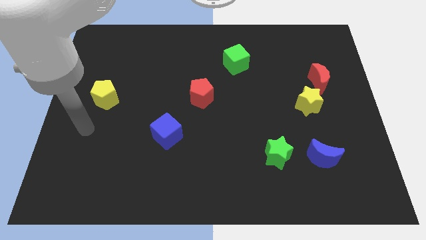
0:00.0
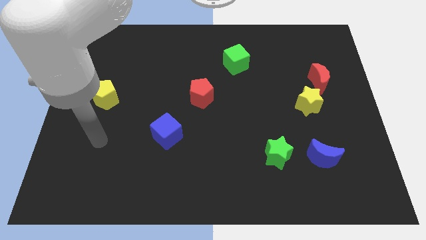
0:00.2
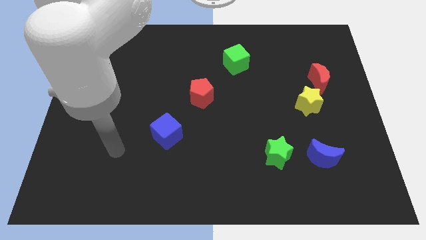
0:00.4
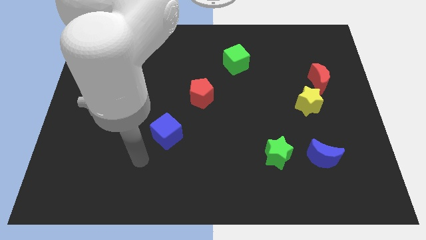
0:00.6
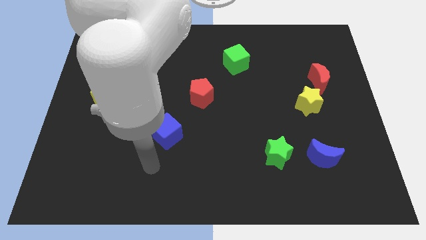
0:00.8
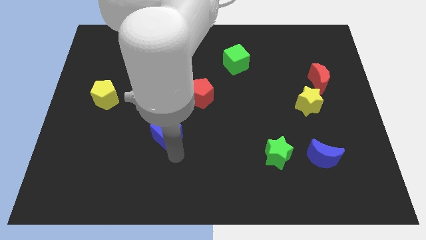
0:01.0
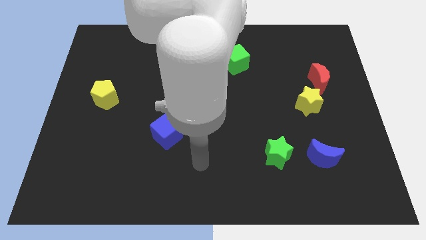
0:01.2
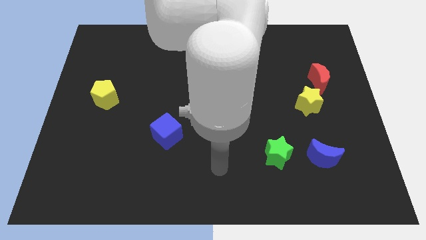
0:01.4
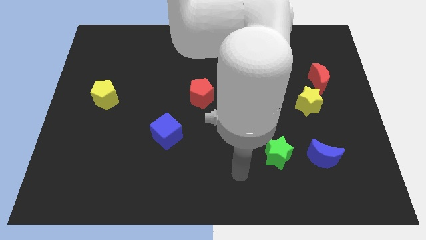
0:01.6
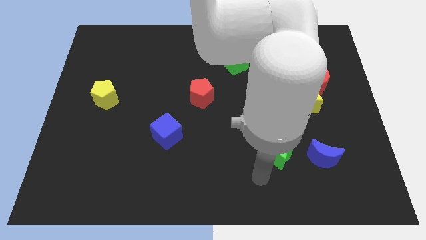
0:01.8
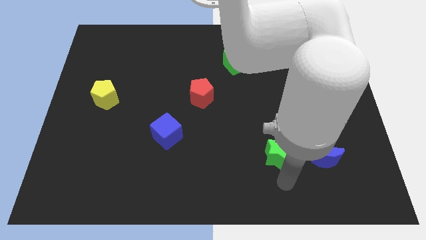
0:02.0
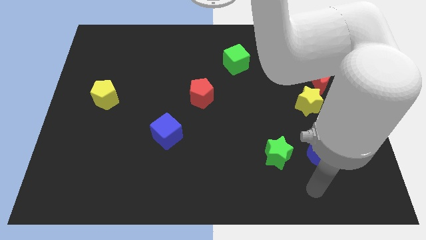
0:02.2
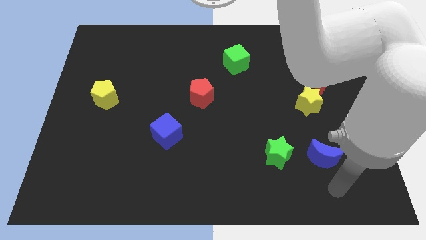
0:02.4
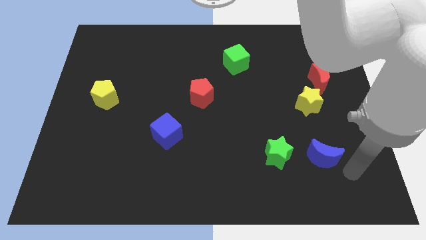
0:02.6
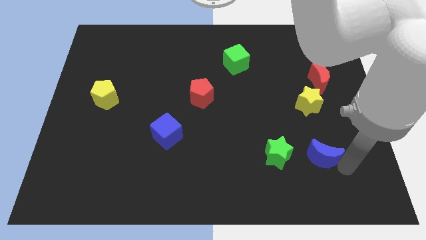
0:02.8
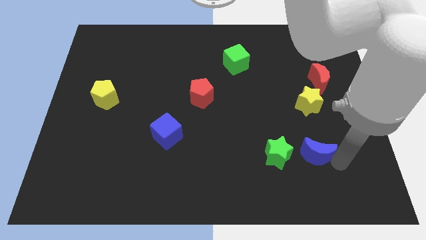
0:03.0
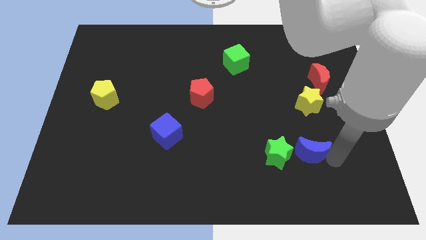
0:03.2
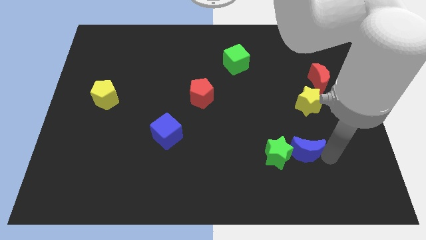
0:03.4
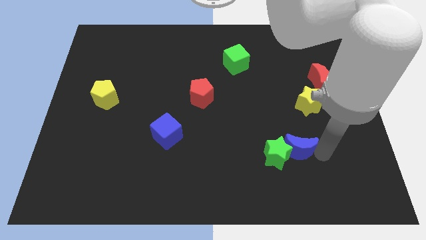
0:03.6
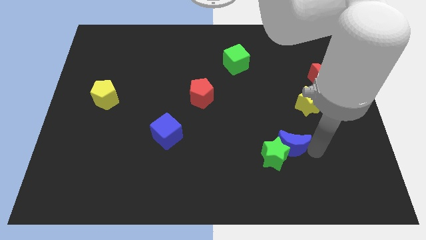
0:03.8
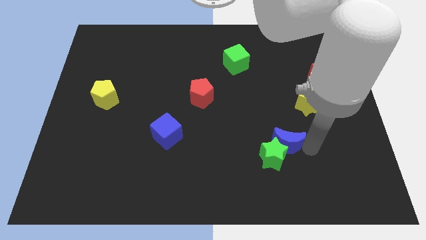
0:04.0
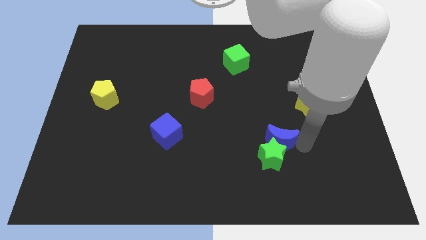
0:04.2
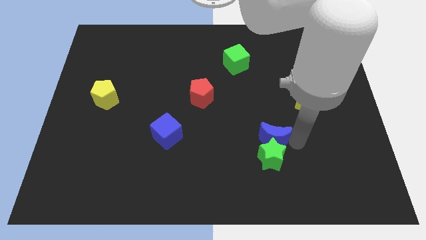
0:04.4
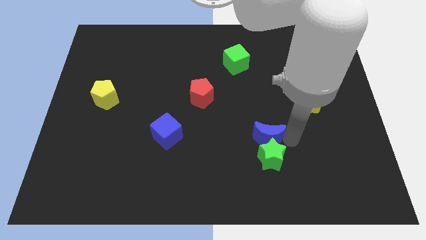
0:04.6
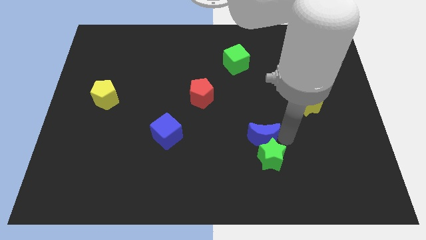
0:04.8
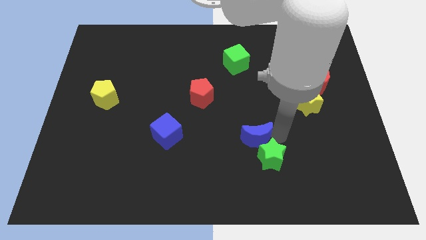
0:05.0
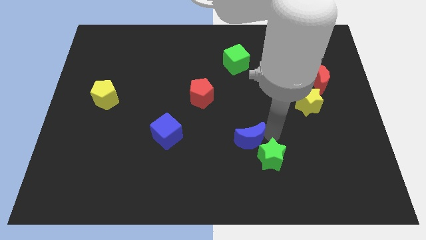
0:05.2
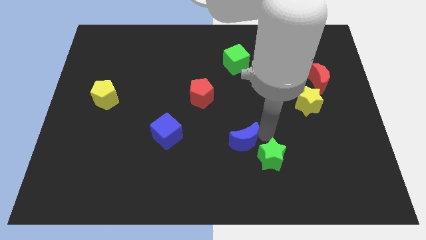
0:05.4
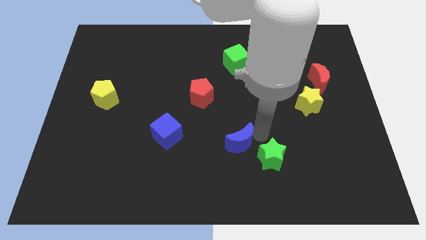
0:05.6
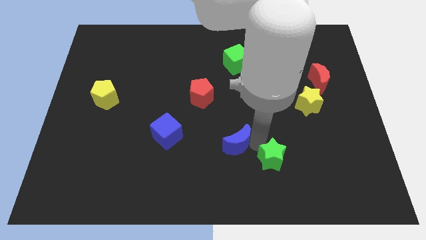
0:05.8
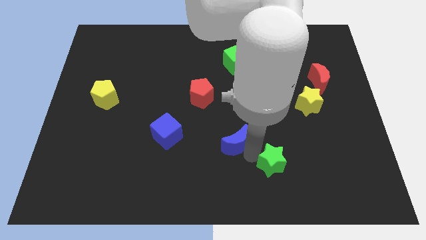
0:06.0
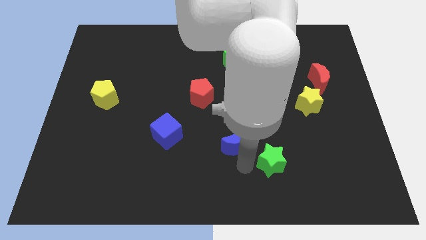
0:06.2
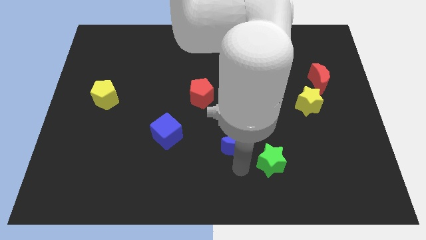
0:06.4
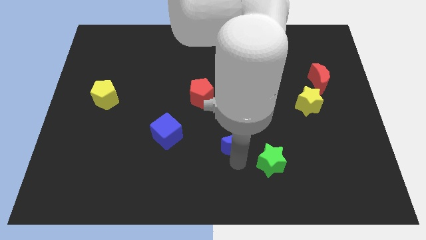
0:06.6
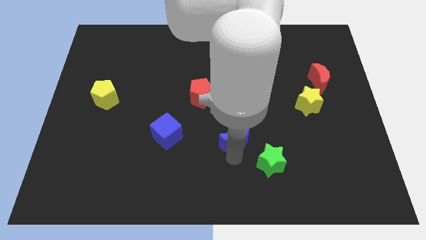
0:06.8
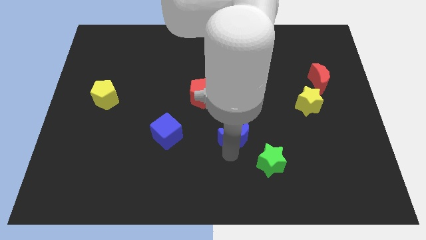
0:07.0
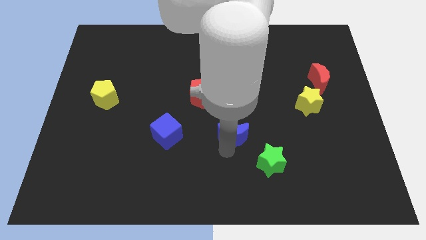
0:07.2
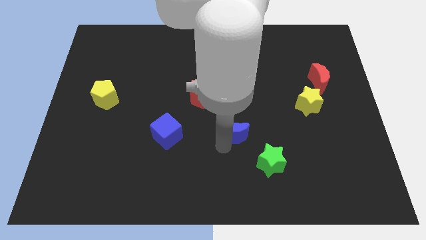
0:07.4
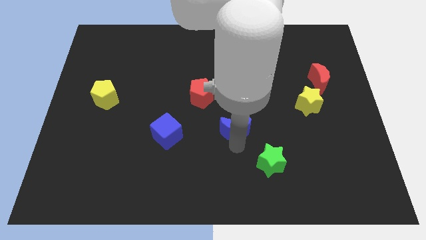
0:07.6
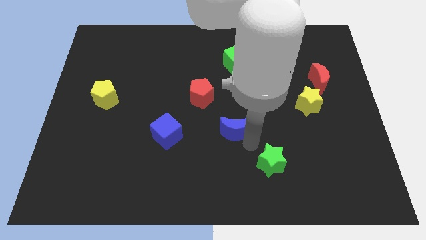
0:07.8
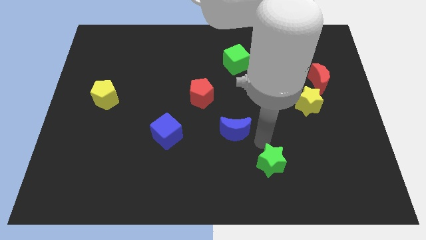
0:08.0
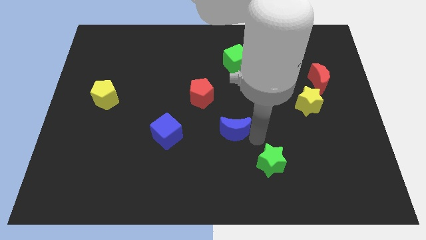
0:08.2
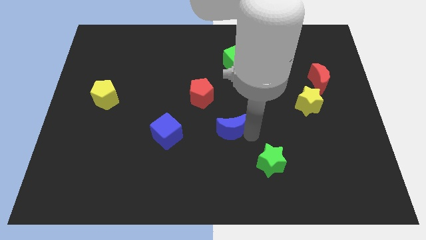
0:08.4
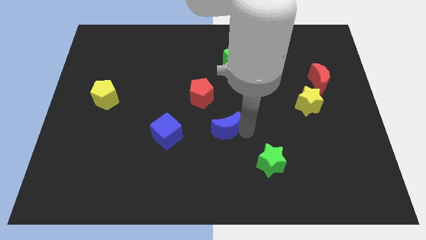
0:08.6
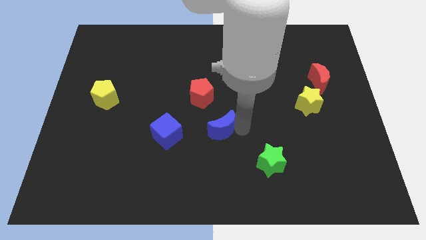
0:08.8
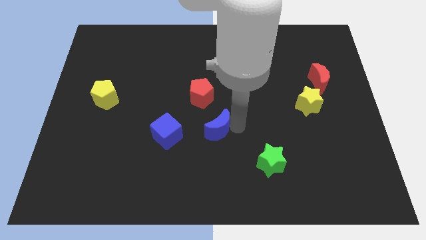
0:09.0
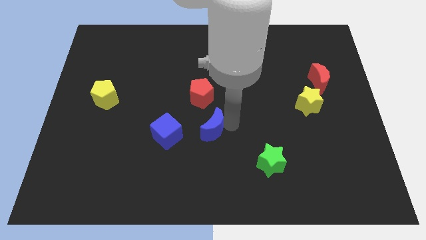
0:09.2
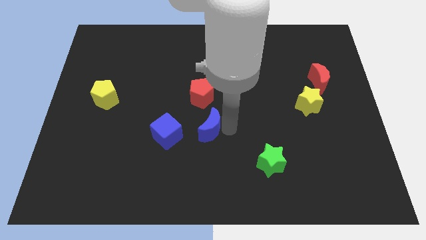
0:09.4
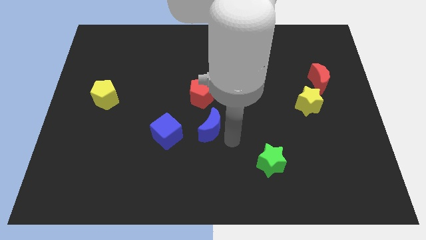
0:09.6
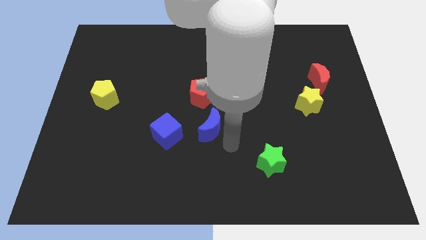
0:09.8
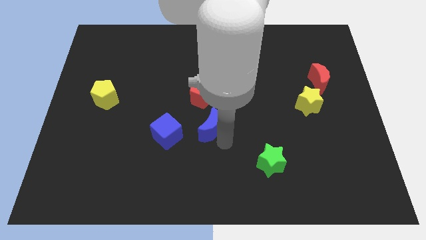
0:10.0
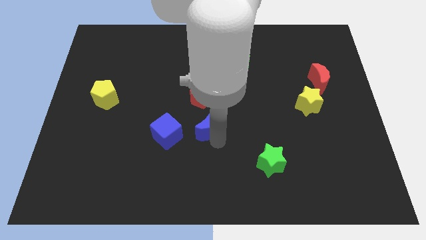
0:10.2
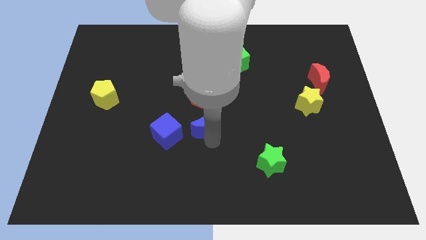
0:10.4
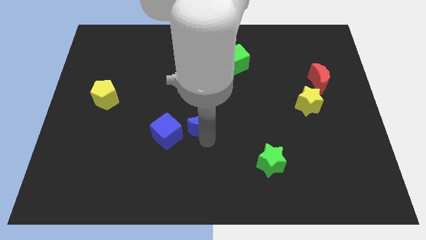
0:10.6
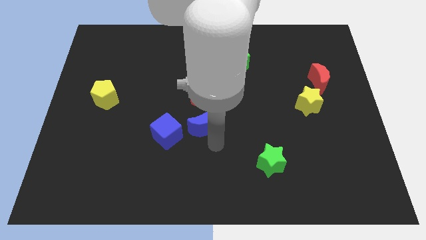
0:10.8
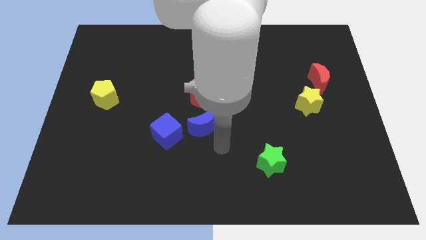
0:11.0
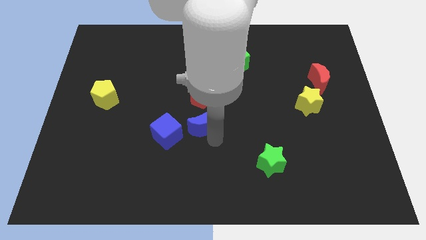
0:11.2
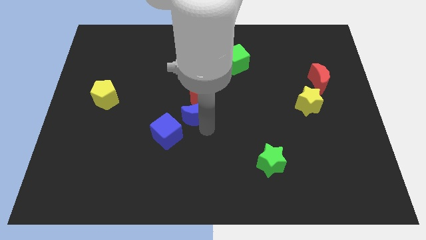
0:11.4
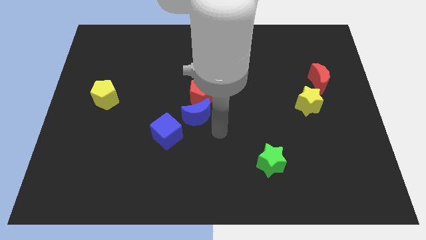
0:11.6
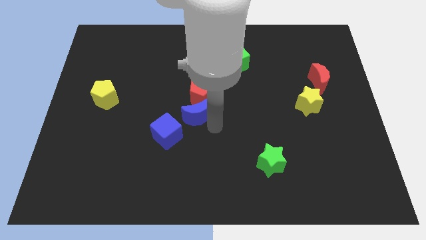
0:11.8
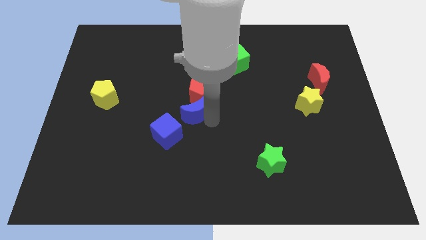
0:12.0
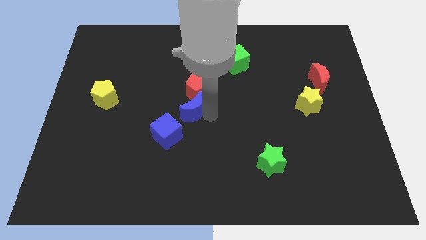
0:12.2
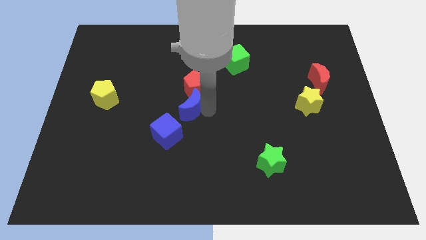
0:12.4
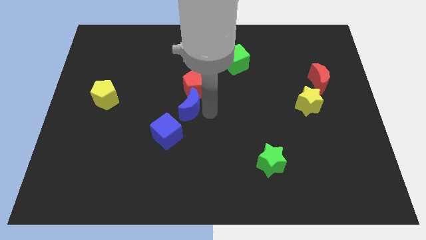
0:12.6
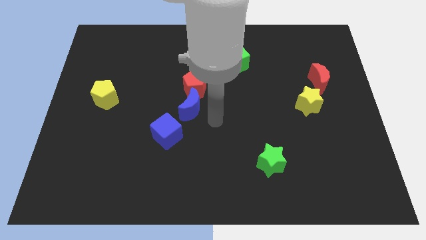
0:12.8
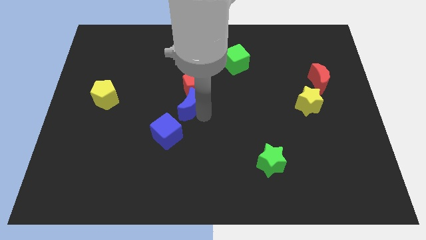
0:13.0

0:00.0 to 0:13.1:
push the blue moon to the top of the blue cube
